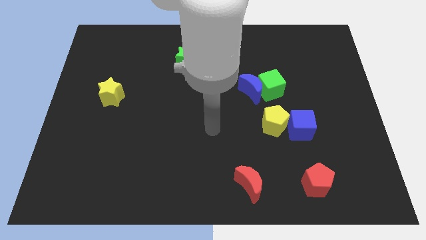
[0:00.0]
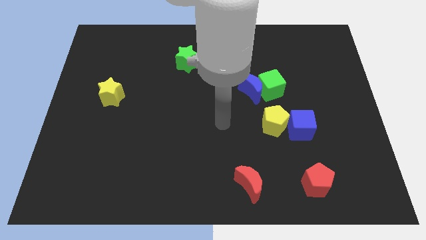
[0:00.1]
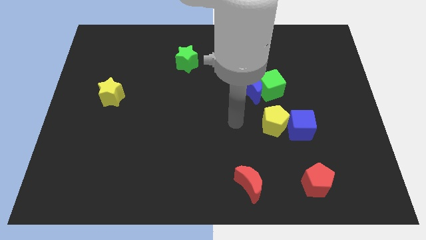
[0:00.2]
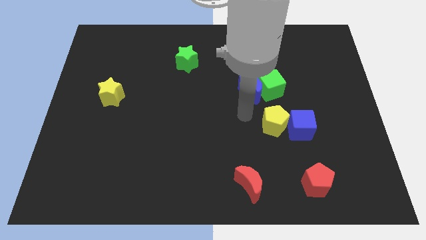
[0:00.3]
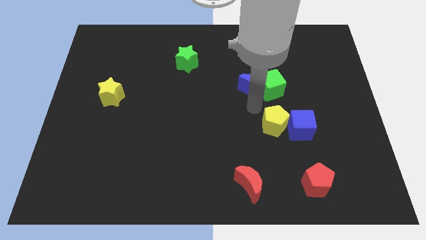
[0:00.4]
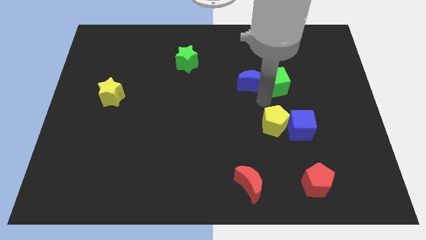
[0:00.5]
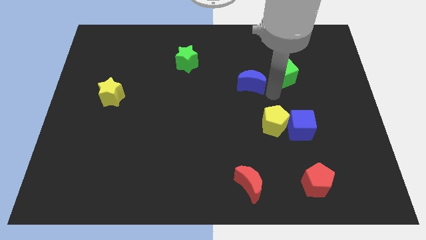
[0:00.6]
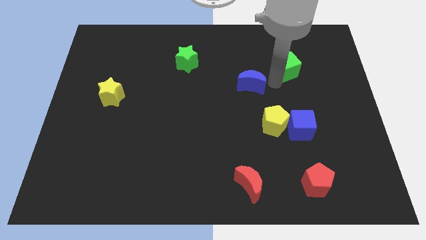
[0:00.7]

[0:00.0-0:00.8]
separate the blue moon from the green cube

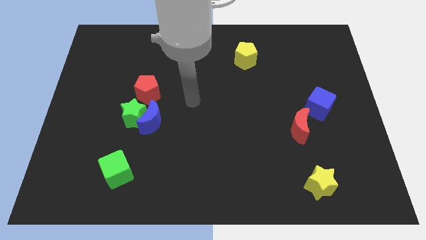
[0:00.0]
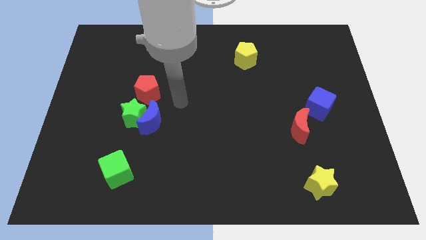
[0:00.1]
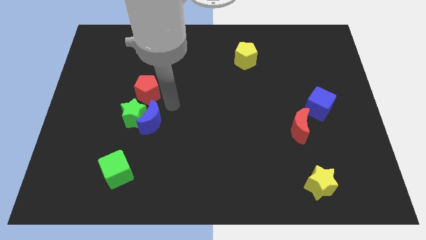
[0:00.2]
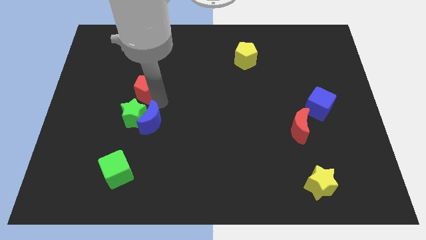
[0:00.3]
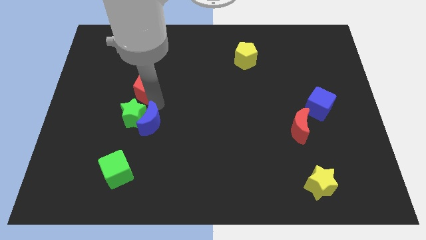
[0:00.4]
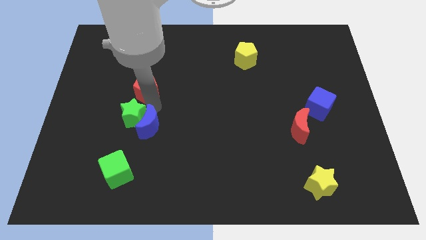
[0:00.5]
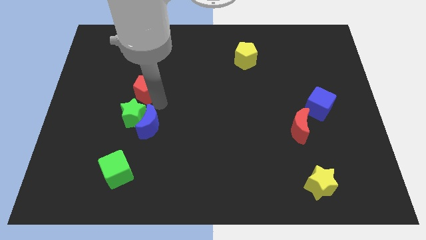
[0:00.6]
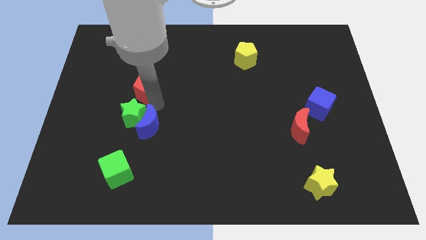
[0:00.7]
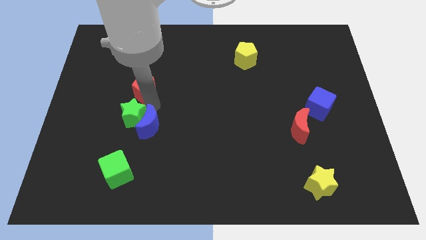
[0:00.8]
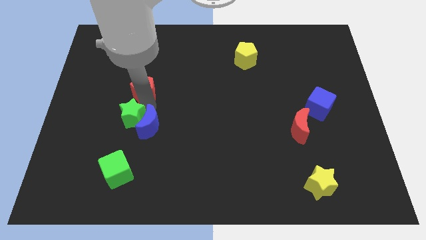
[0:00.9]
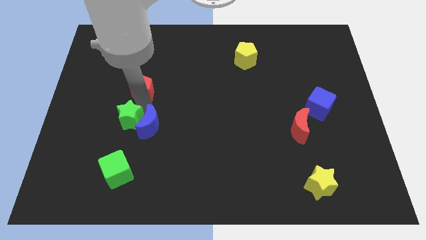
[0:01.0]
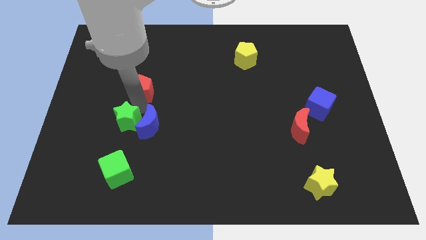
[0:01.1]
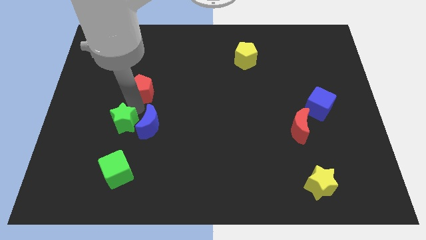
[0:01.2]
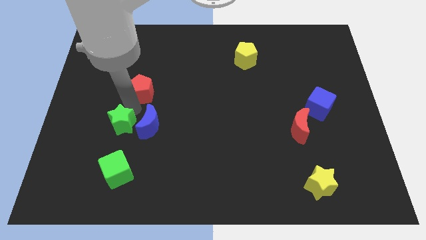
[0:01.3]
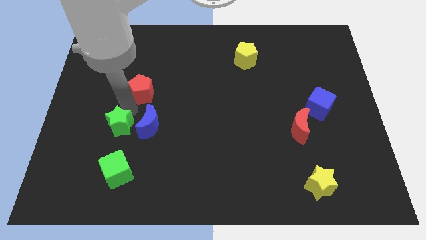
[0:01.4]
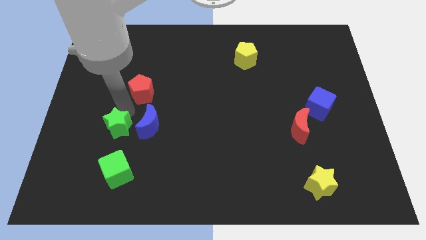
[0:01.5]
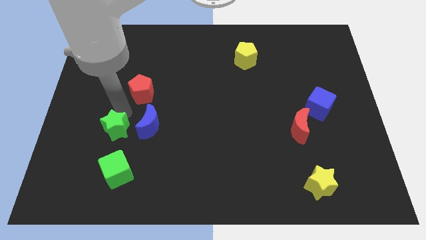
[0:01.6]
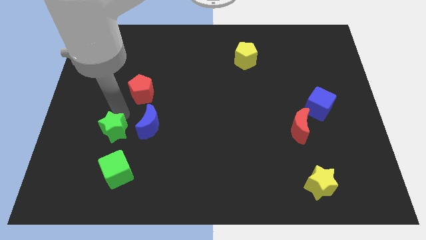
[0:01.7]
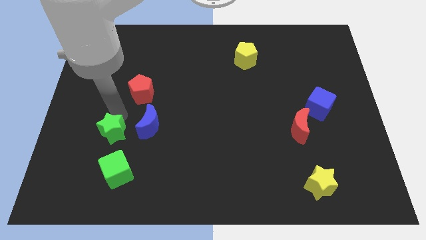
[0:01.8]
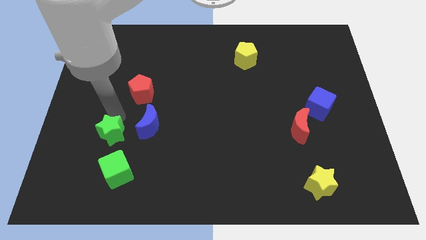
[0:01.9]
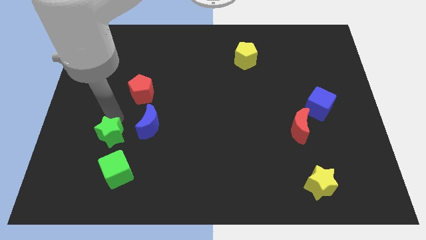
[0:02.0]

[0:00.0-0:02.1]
separate the green star from the blue moon and red pentagon

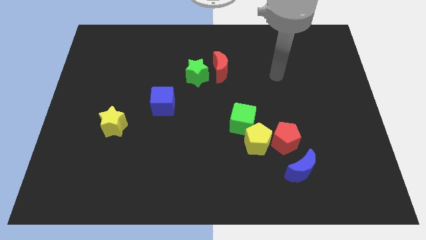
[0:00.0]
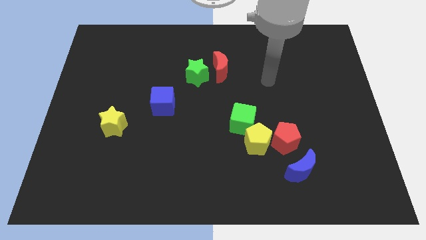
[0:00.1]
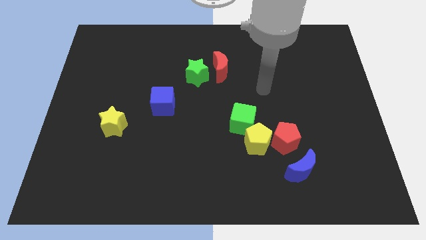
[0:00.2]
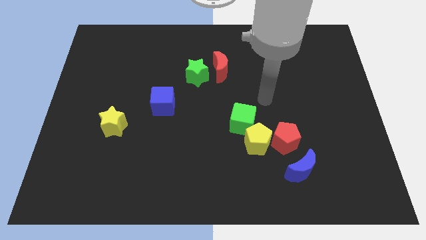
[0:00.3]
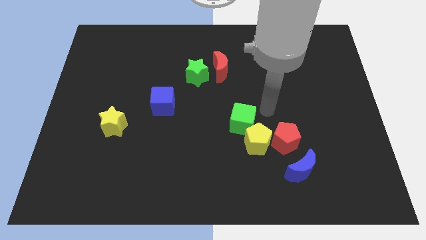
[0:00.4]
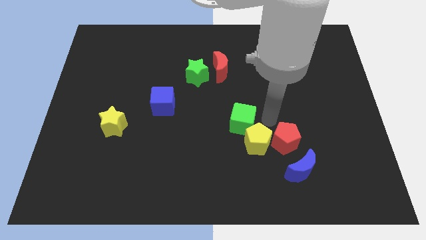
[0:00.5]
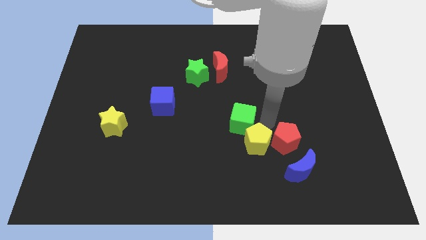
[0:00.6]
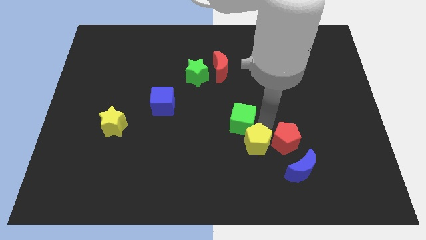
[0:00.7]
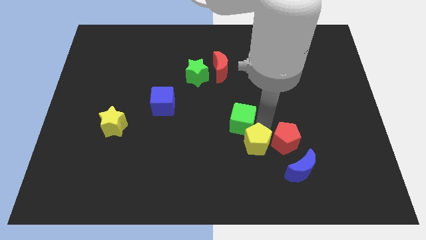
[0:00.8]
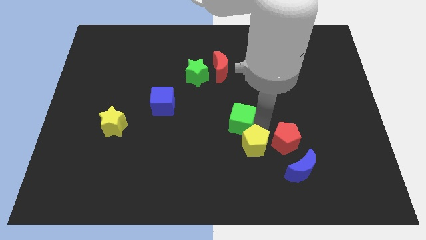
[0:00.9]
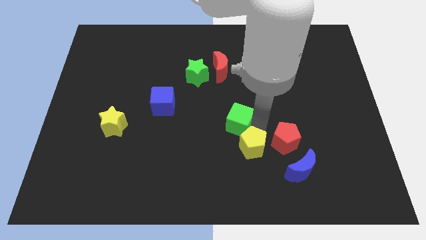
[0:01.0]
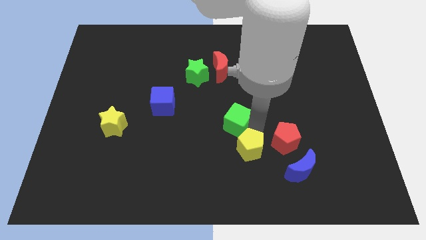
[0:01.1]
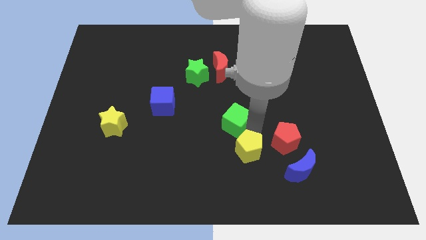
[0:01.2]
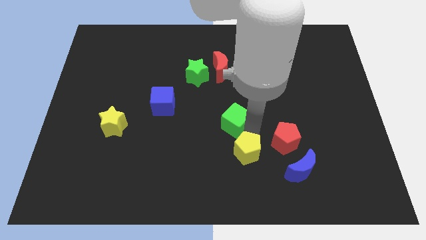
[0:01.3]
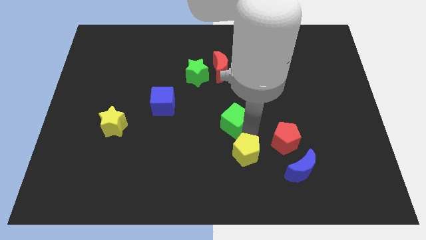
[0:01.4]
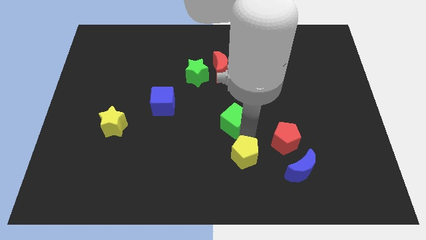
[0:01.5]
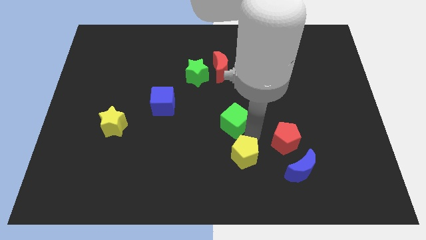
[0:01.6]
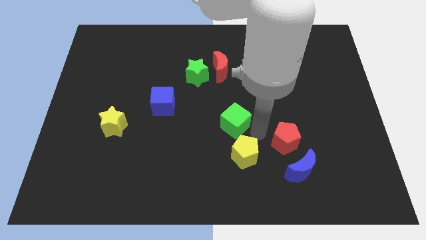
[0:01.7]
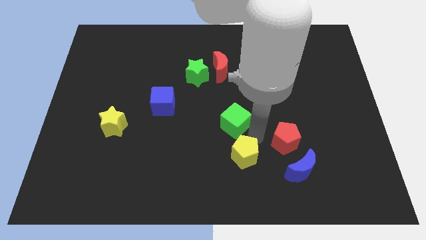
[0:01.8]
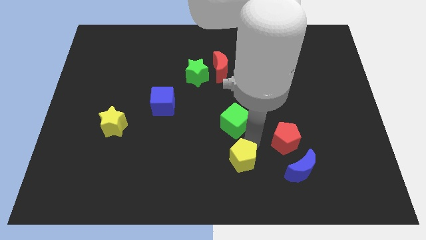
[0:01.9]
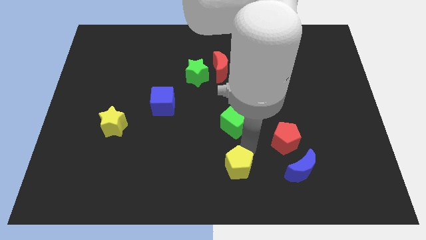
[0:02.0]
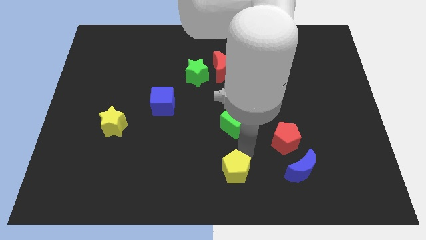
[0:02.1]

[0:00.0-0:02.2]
separate the yellow pentagon from the green cube and red pentagon

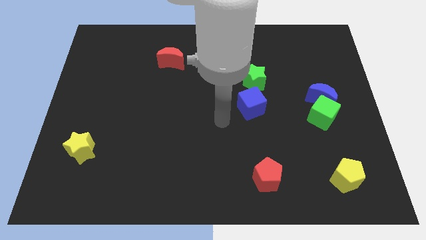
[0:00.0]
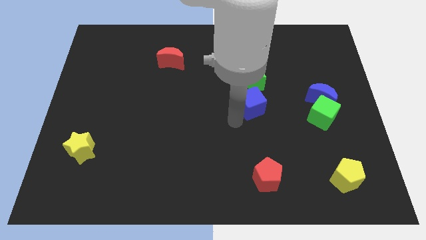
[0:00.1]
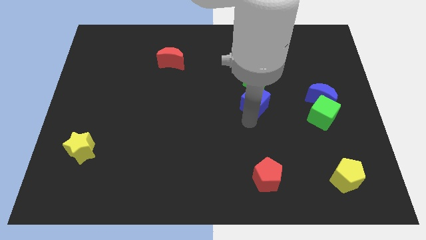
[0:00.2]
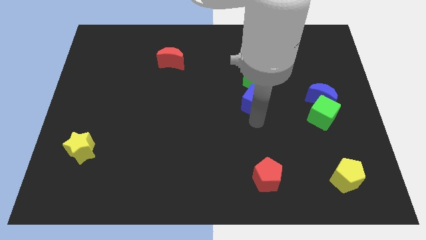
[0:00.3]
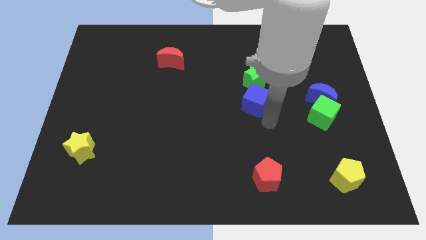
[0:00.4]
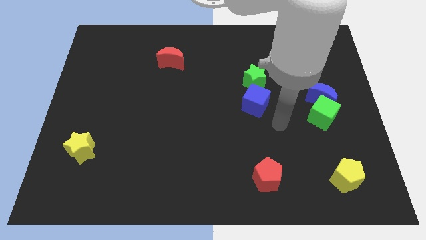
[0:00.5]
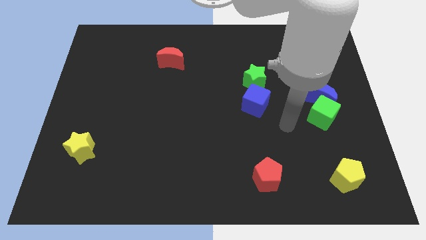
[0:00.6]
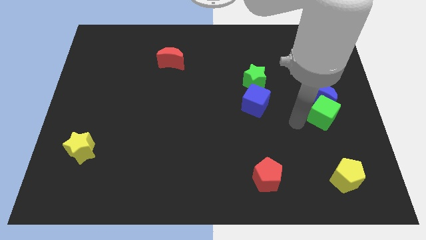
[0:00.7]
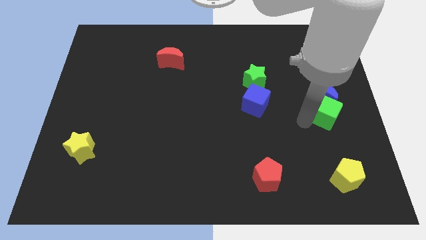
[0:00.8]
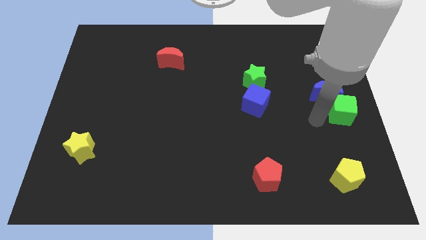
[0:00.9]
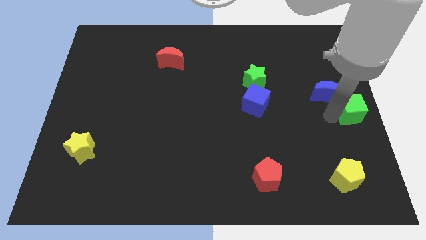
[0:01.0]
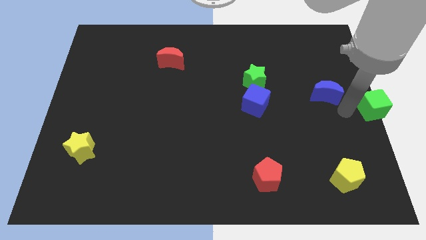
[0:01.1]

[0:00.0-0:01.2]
move the blue moon away from the green cube

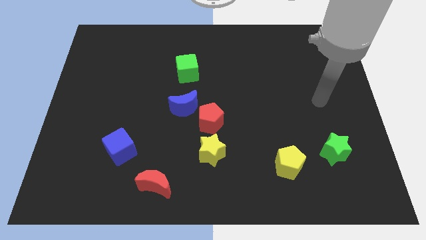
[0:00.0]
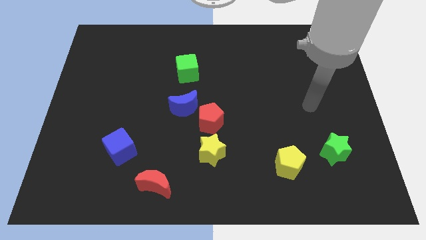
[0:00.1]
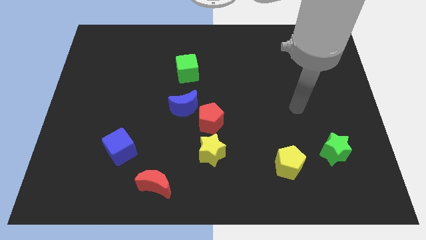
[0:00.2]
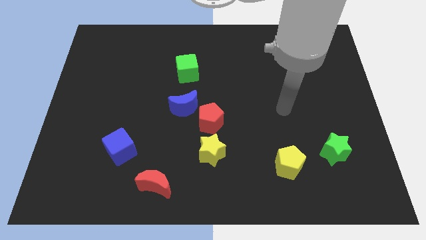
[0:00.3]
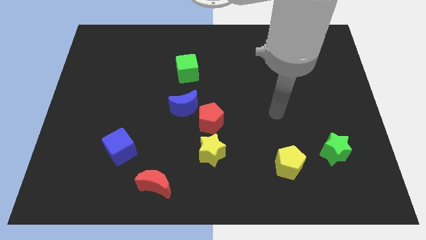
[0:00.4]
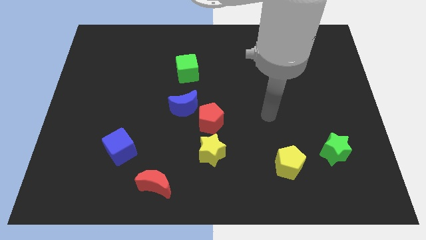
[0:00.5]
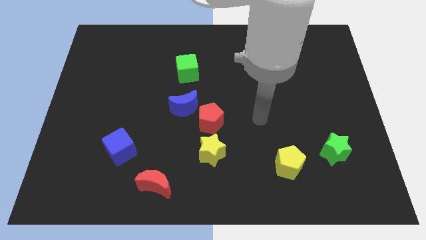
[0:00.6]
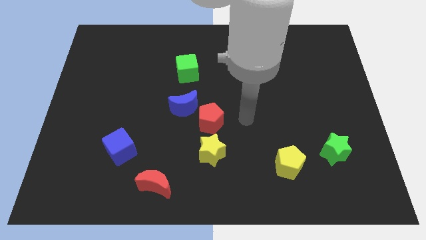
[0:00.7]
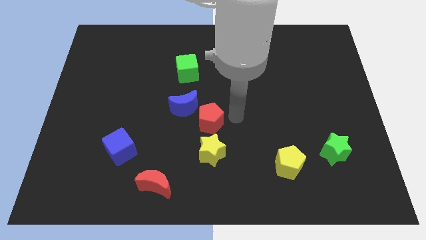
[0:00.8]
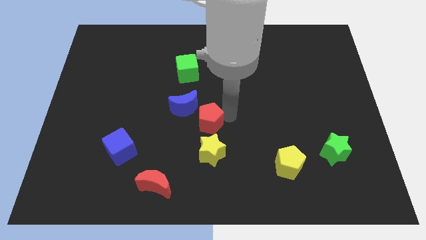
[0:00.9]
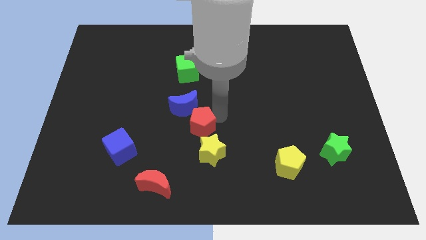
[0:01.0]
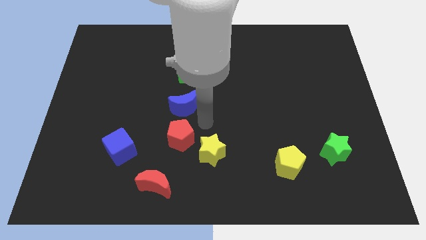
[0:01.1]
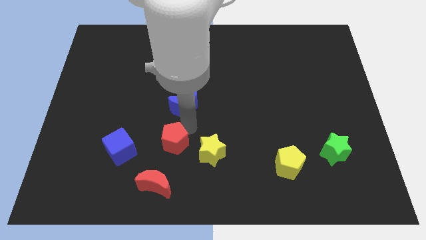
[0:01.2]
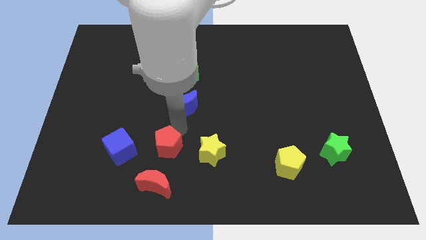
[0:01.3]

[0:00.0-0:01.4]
separate the blue moon from the red pentagon

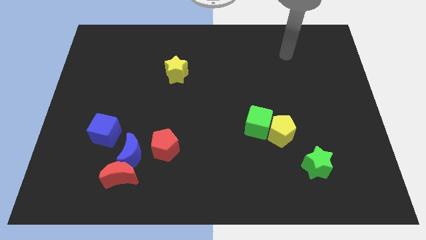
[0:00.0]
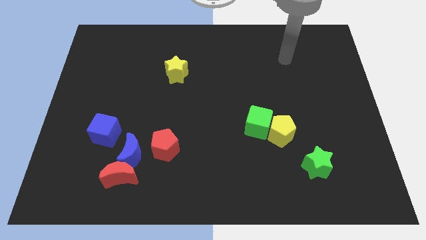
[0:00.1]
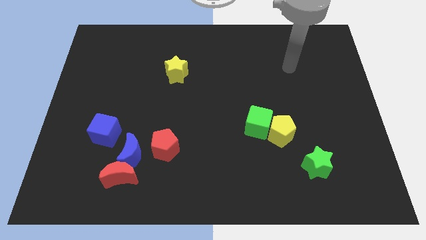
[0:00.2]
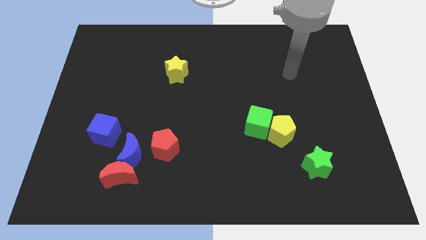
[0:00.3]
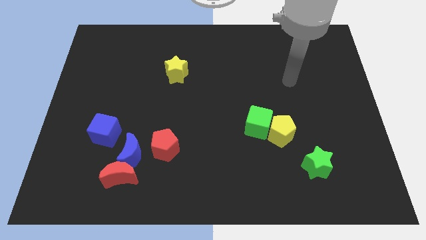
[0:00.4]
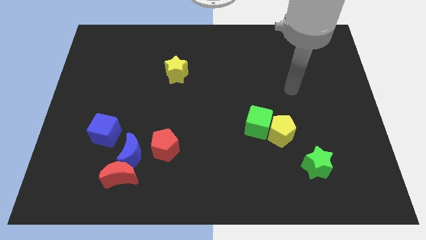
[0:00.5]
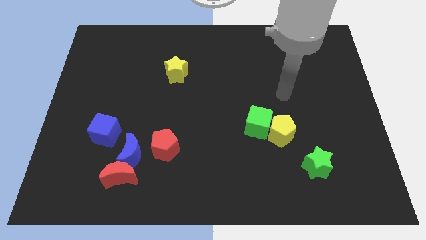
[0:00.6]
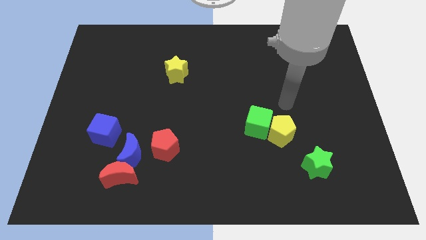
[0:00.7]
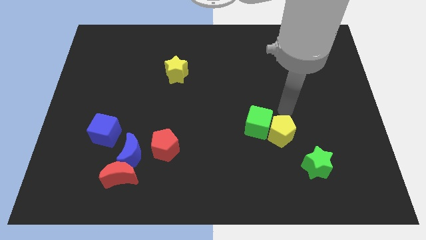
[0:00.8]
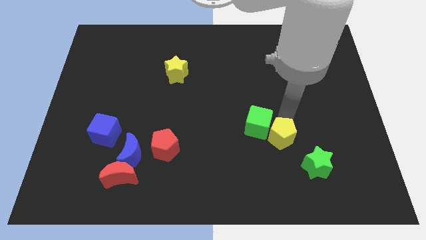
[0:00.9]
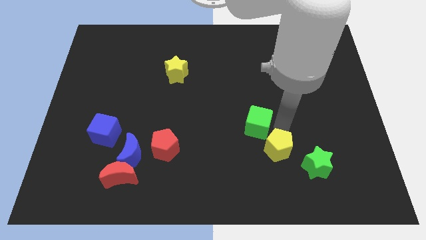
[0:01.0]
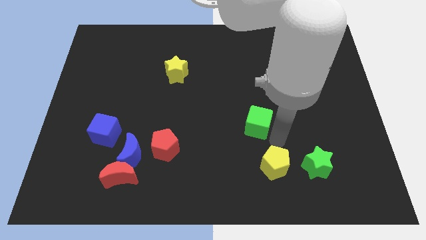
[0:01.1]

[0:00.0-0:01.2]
pull the green cube apart from the yellow pentagon

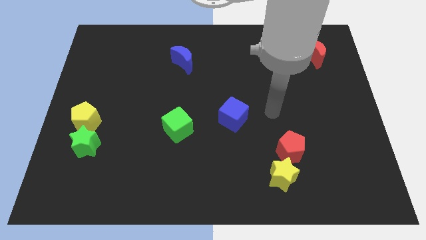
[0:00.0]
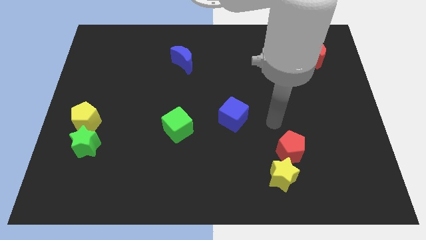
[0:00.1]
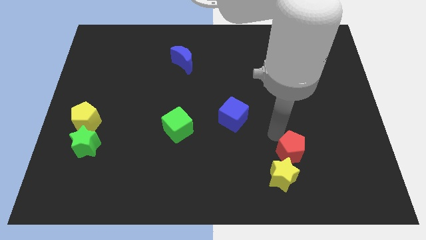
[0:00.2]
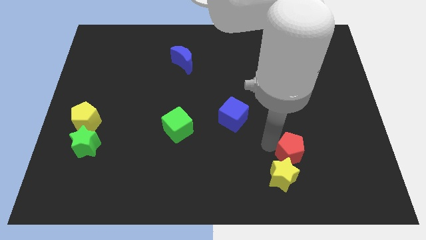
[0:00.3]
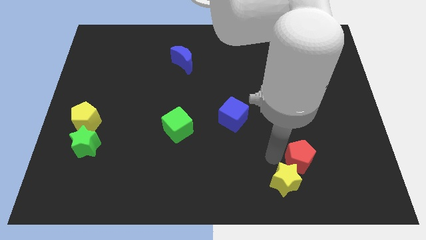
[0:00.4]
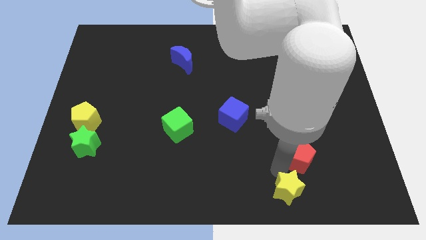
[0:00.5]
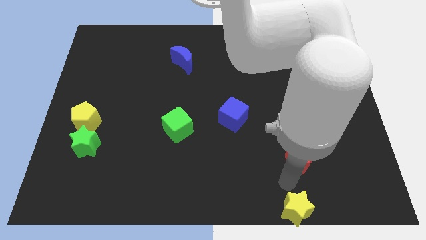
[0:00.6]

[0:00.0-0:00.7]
separate the red pentagon from the yellow star
